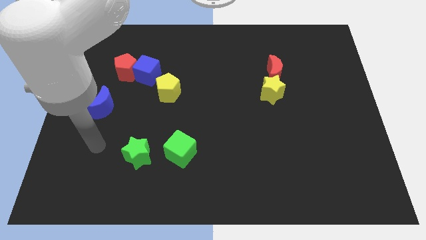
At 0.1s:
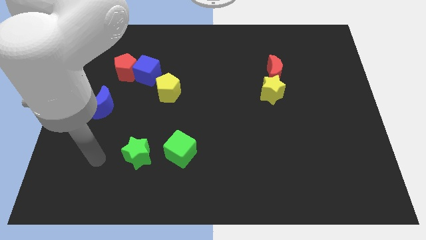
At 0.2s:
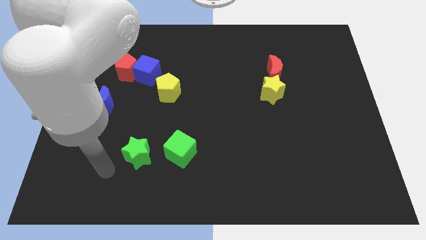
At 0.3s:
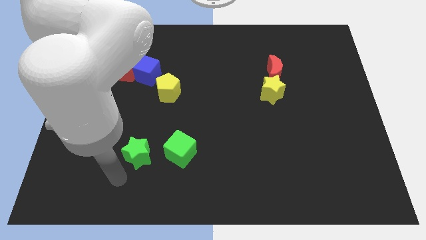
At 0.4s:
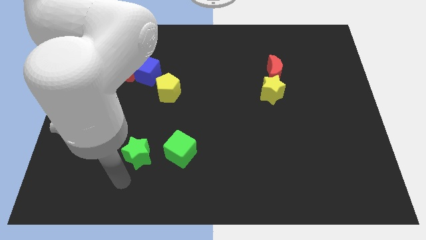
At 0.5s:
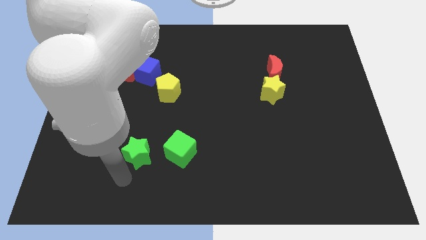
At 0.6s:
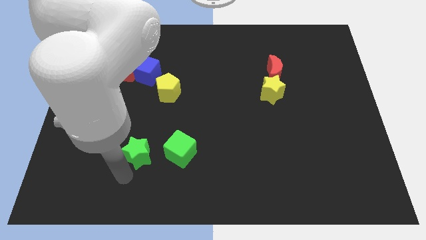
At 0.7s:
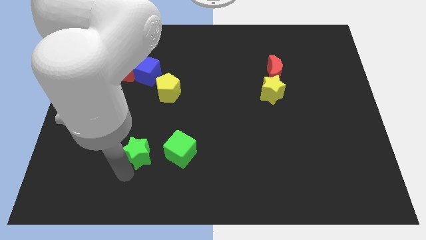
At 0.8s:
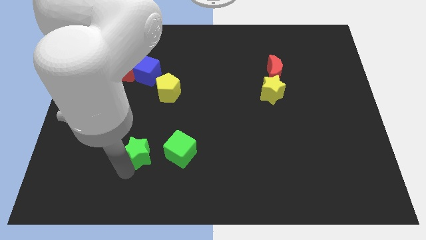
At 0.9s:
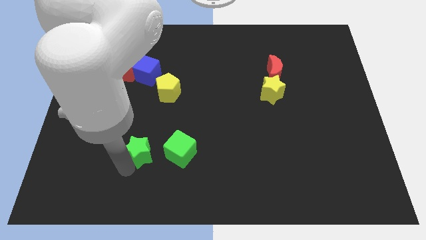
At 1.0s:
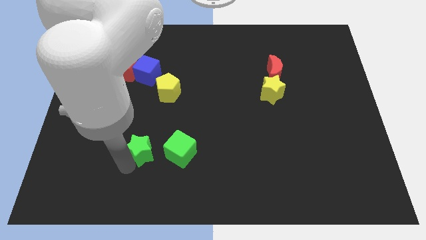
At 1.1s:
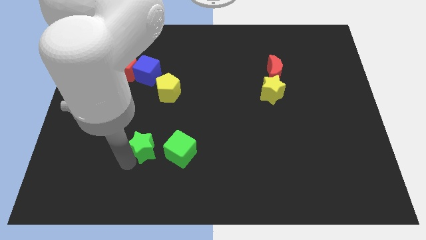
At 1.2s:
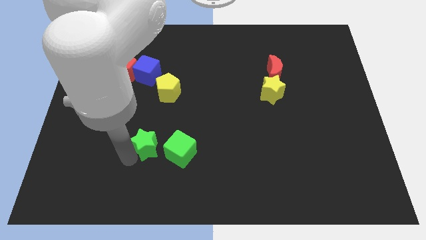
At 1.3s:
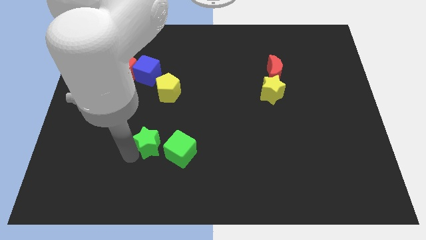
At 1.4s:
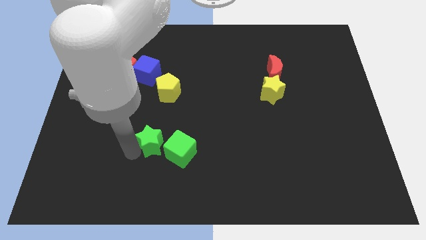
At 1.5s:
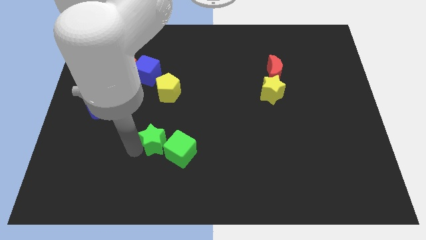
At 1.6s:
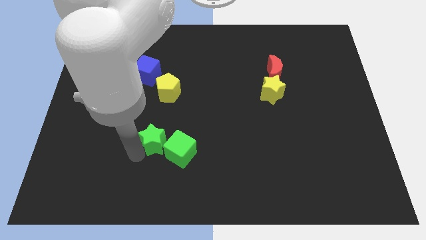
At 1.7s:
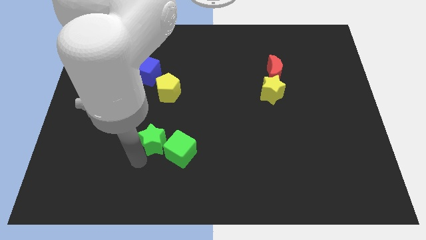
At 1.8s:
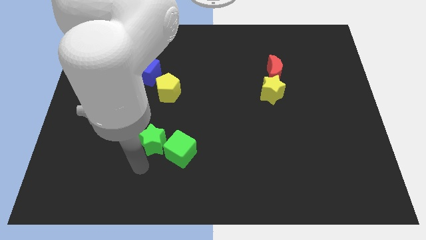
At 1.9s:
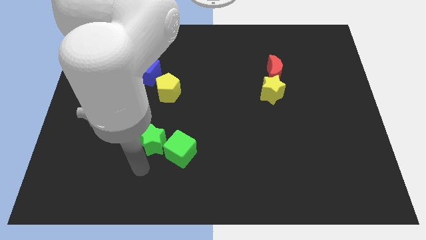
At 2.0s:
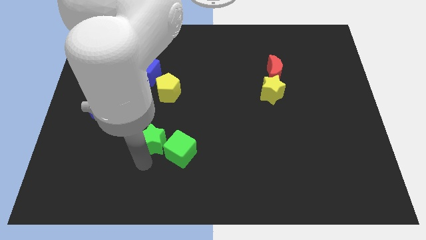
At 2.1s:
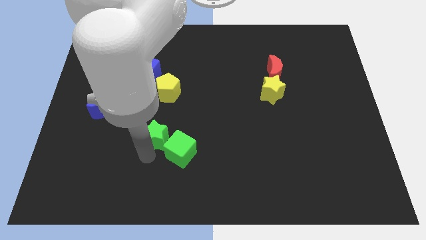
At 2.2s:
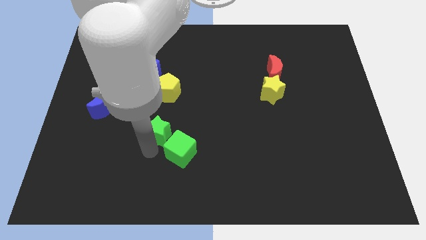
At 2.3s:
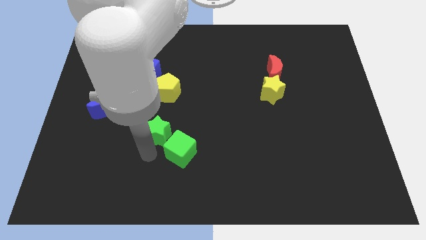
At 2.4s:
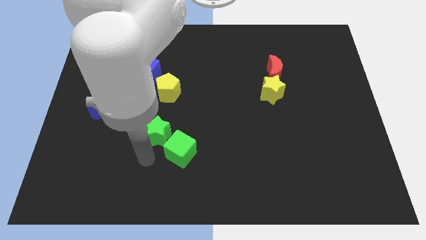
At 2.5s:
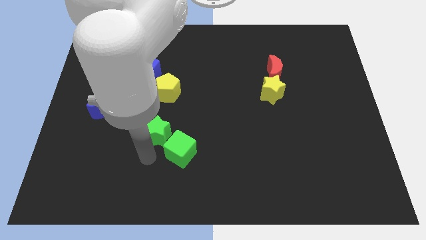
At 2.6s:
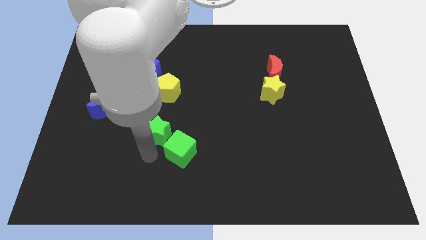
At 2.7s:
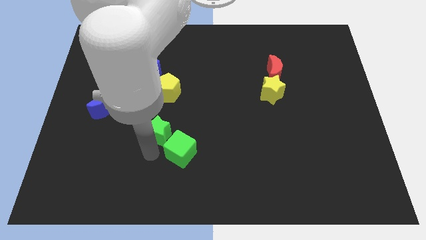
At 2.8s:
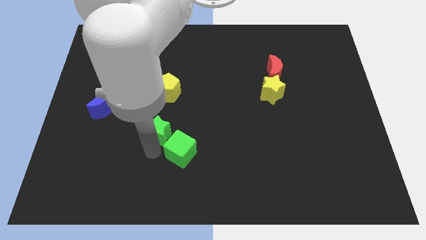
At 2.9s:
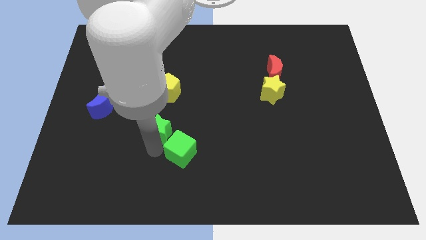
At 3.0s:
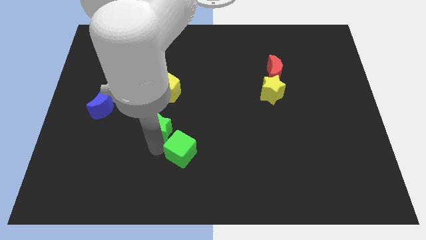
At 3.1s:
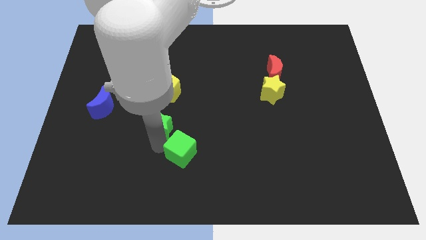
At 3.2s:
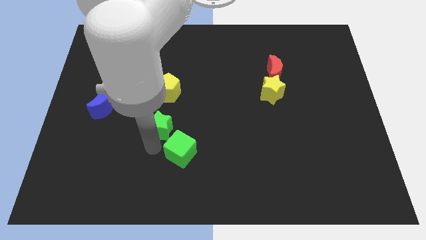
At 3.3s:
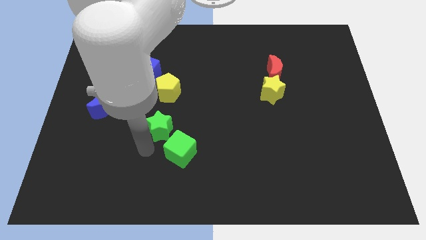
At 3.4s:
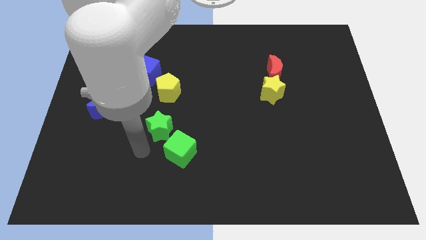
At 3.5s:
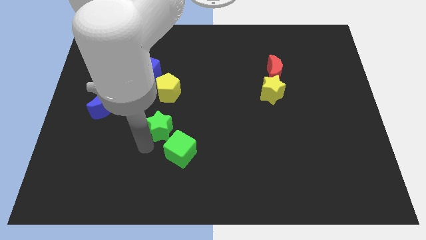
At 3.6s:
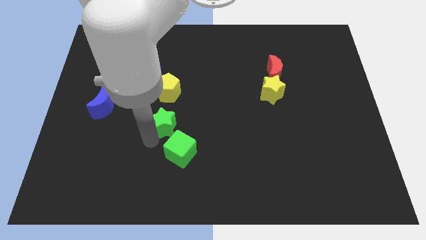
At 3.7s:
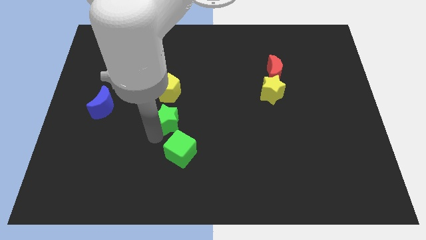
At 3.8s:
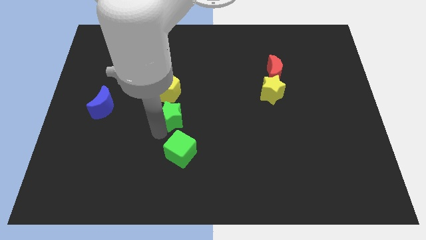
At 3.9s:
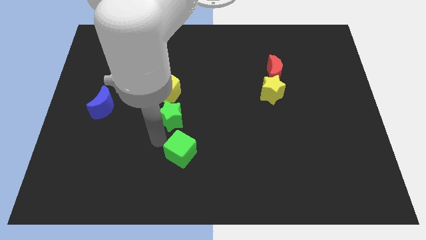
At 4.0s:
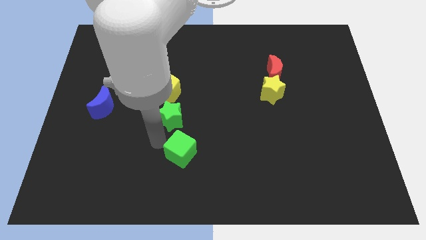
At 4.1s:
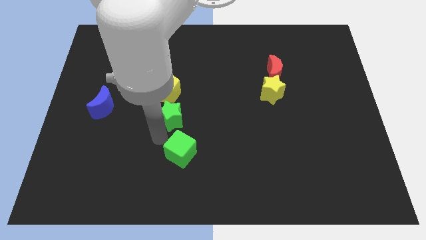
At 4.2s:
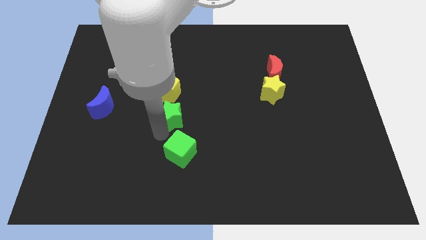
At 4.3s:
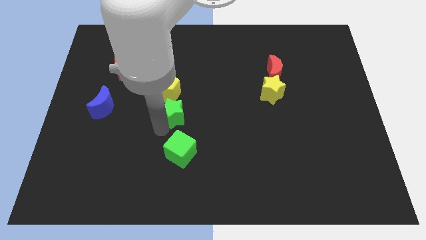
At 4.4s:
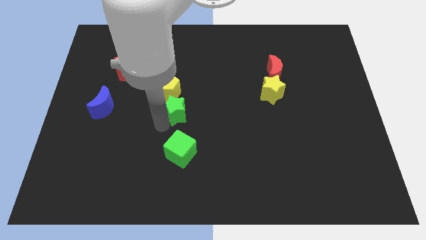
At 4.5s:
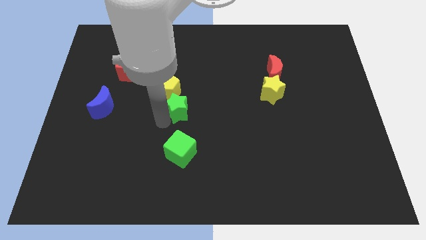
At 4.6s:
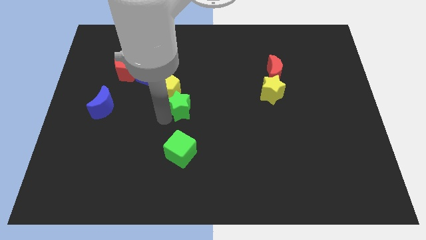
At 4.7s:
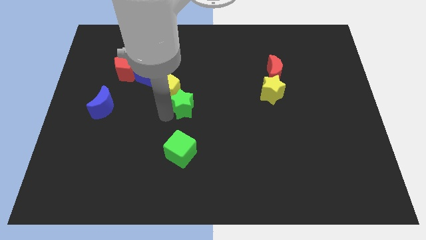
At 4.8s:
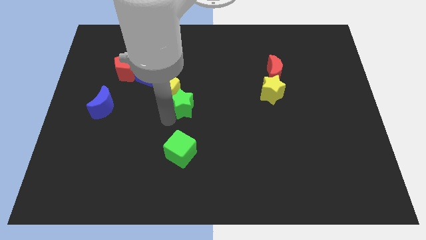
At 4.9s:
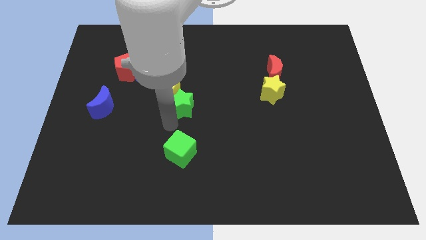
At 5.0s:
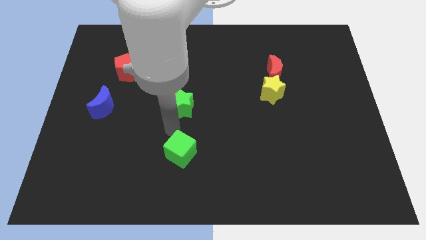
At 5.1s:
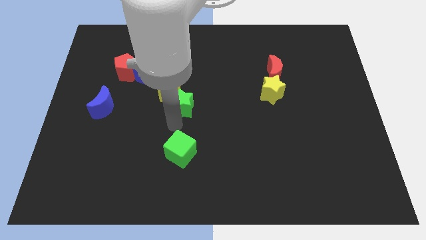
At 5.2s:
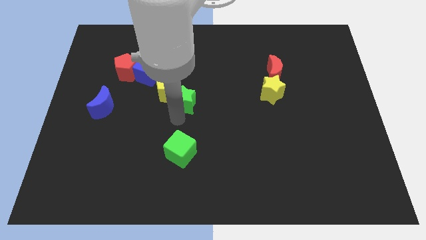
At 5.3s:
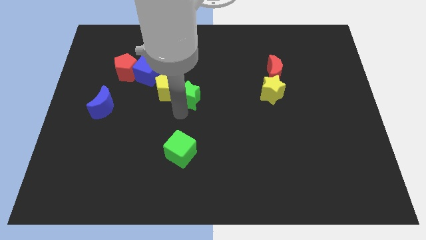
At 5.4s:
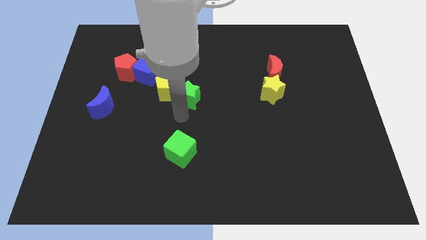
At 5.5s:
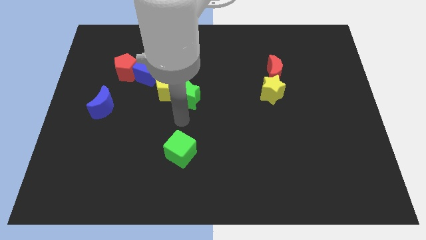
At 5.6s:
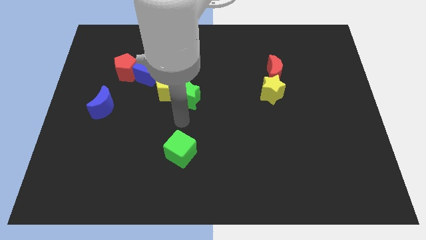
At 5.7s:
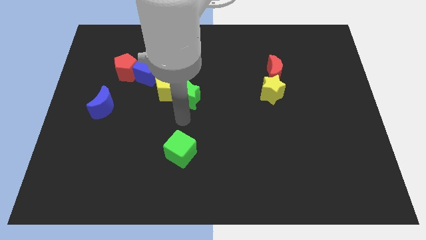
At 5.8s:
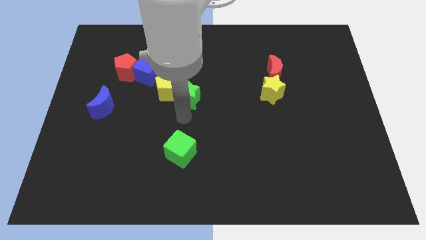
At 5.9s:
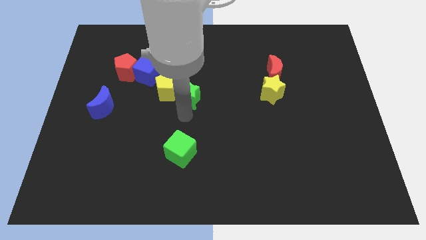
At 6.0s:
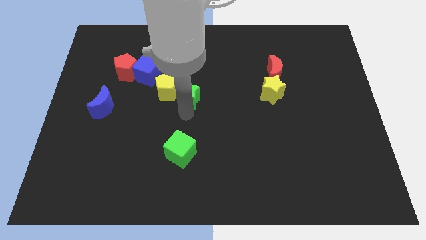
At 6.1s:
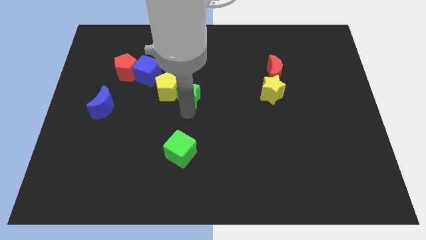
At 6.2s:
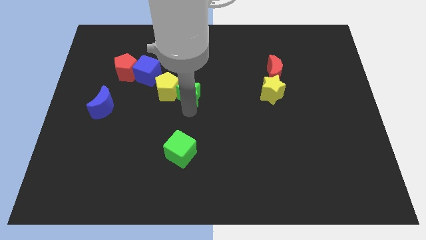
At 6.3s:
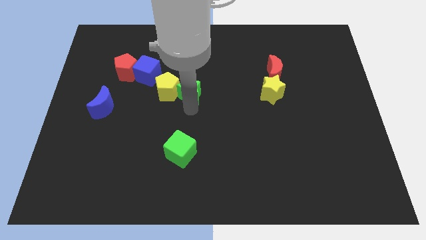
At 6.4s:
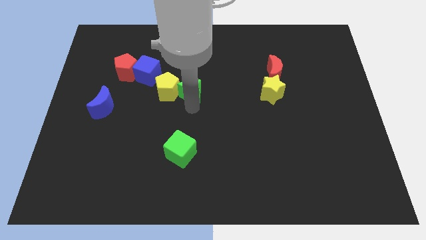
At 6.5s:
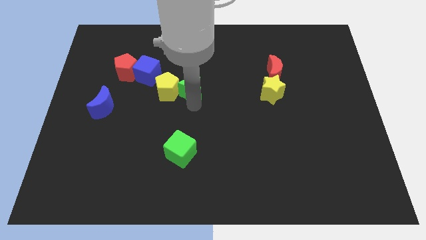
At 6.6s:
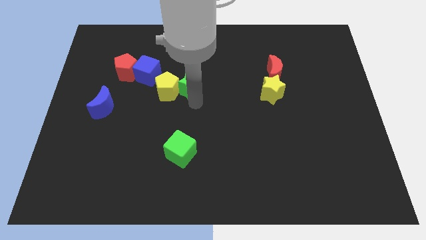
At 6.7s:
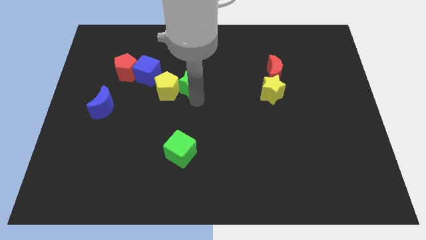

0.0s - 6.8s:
put the green star just right of the blue cube
